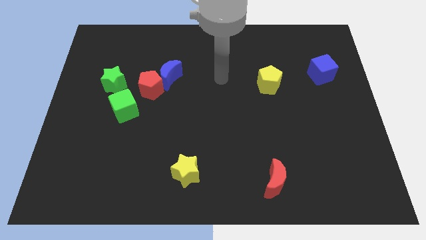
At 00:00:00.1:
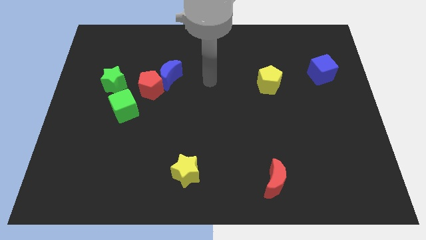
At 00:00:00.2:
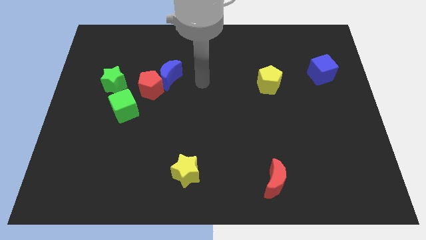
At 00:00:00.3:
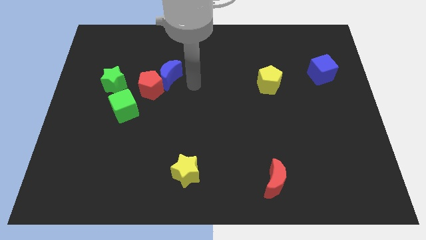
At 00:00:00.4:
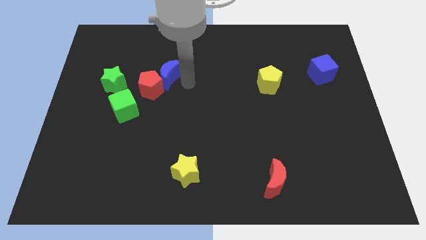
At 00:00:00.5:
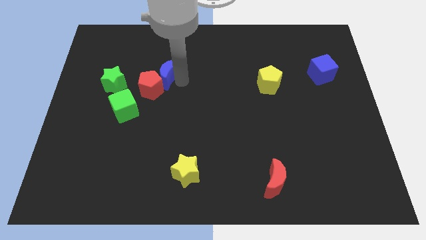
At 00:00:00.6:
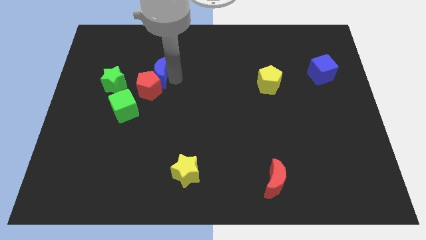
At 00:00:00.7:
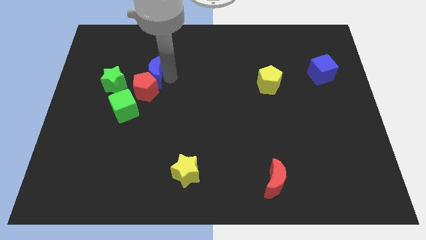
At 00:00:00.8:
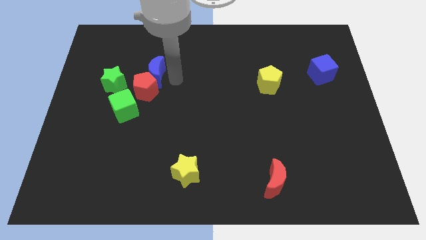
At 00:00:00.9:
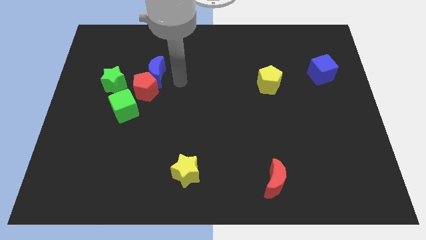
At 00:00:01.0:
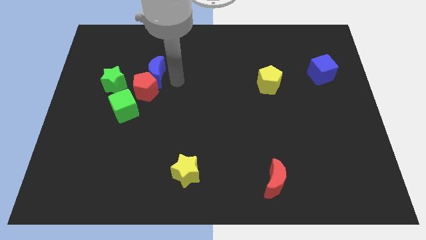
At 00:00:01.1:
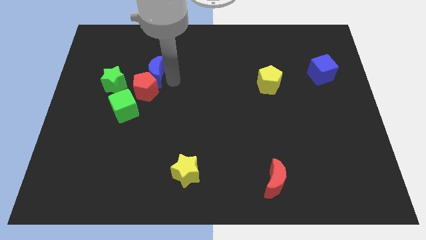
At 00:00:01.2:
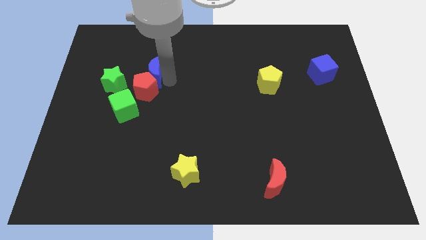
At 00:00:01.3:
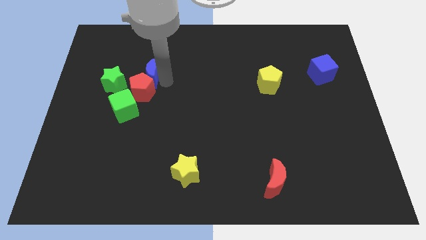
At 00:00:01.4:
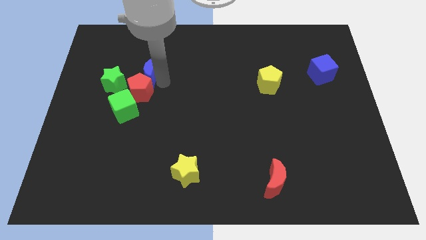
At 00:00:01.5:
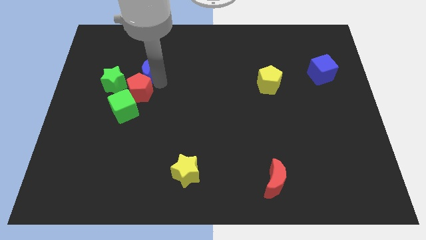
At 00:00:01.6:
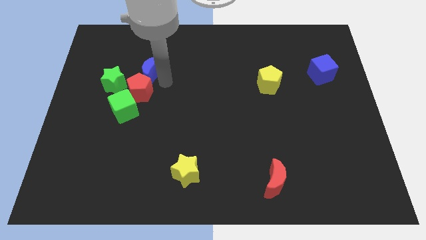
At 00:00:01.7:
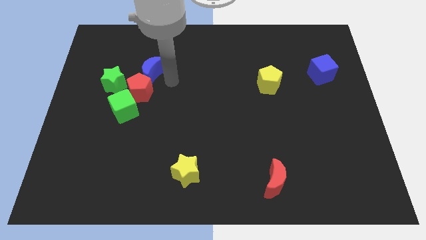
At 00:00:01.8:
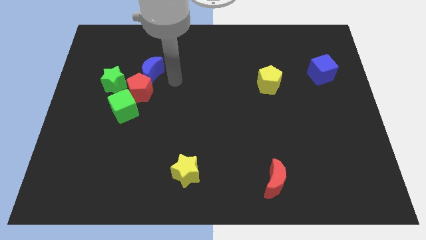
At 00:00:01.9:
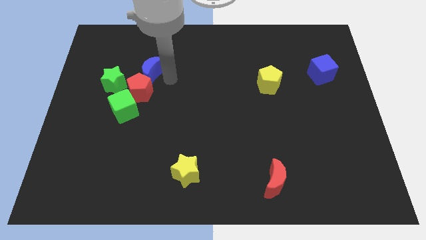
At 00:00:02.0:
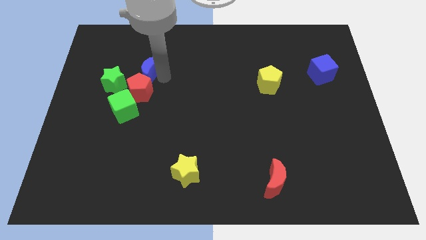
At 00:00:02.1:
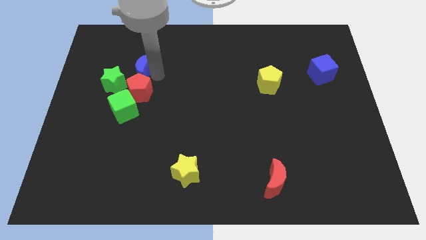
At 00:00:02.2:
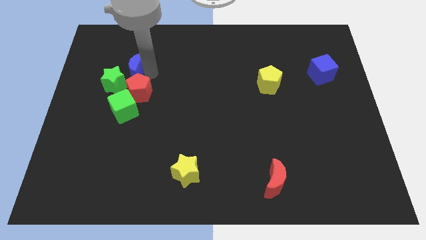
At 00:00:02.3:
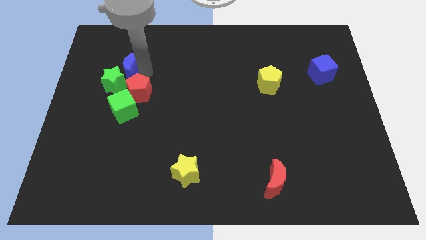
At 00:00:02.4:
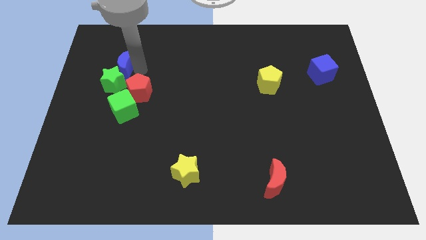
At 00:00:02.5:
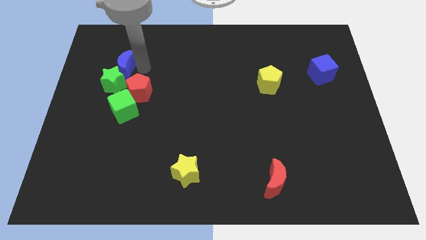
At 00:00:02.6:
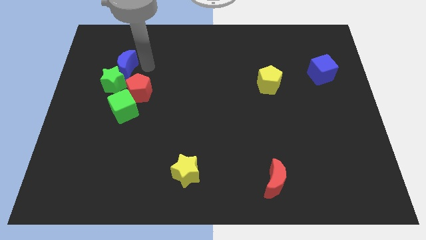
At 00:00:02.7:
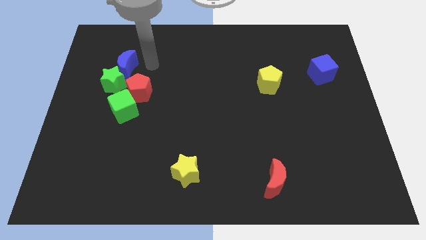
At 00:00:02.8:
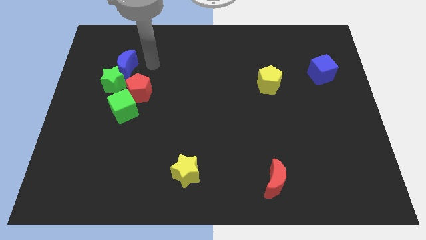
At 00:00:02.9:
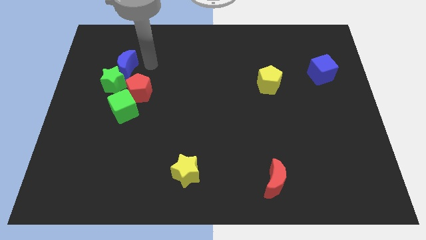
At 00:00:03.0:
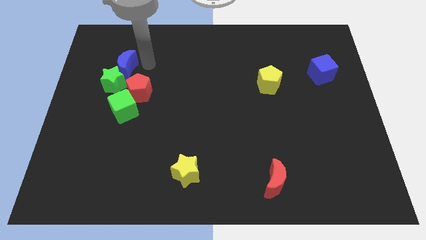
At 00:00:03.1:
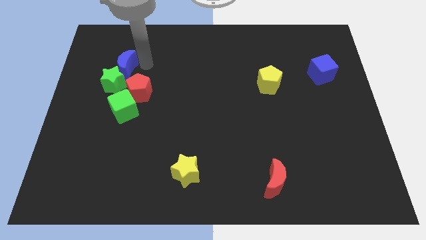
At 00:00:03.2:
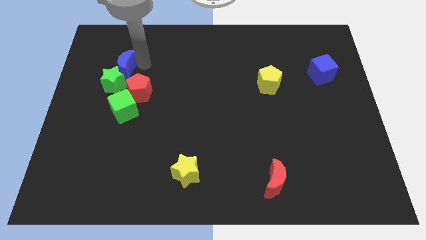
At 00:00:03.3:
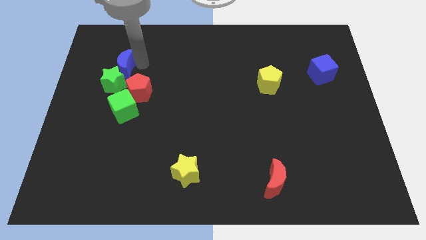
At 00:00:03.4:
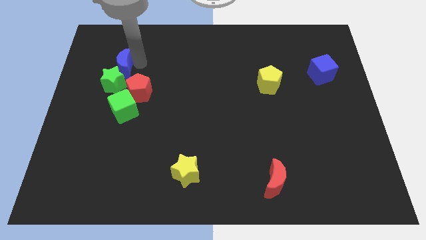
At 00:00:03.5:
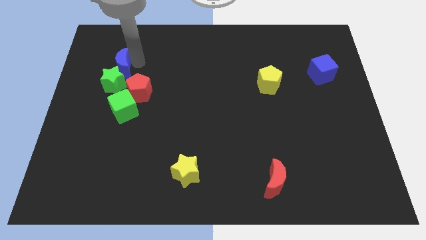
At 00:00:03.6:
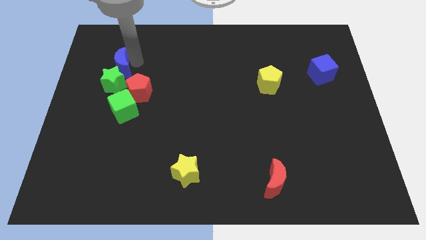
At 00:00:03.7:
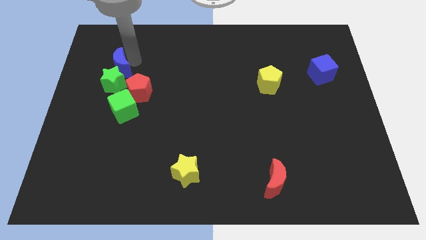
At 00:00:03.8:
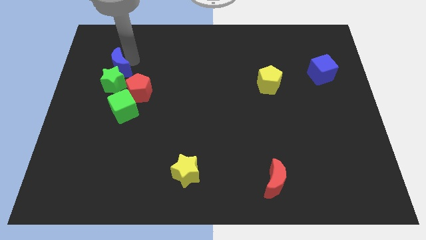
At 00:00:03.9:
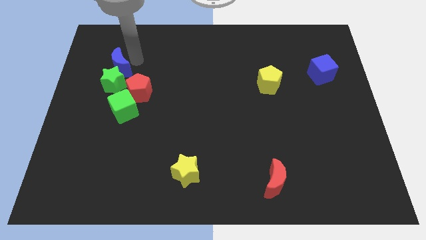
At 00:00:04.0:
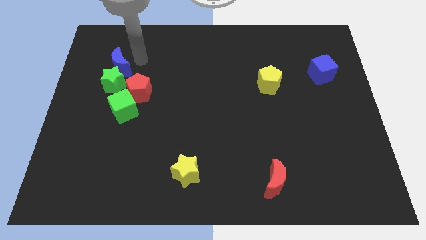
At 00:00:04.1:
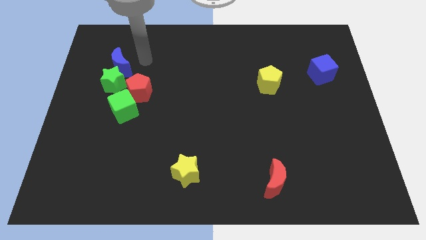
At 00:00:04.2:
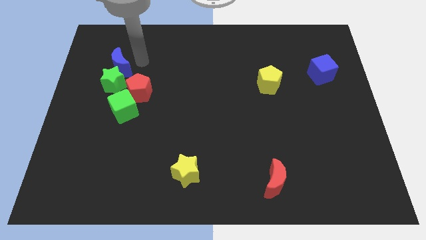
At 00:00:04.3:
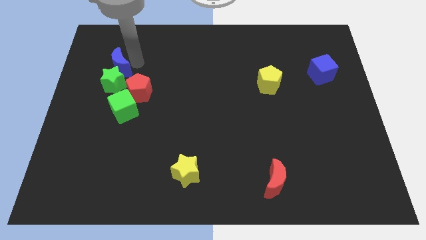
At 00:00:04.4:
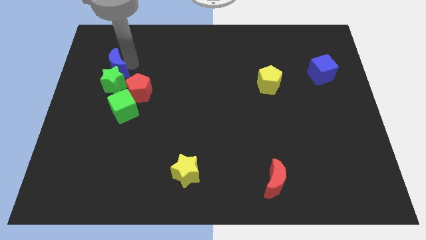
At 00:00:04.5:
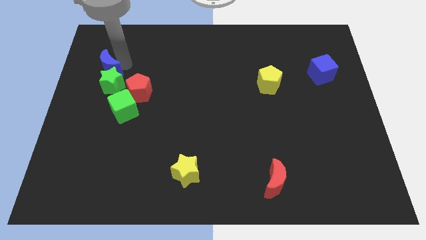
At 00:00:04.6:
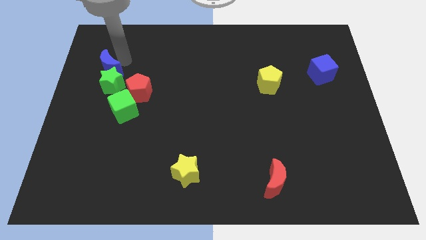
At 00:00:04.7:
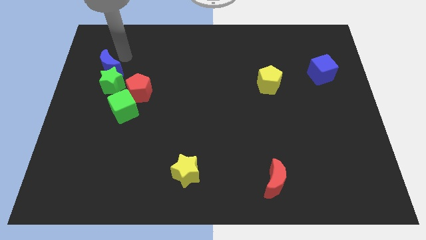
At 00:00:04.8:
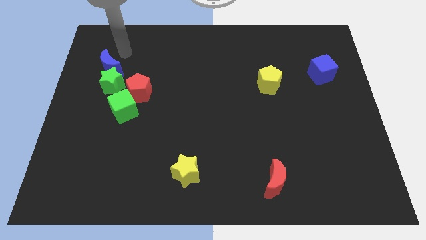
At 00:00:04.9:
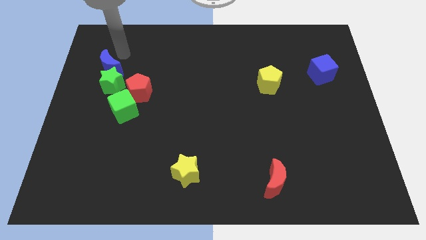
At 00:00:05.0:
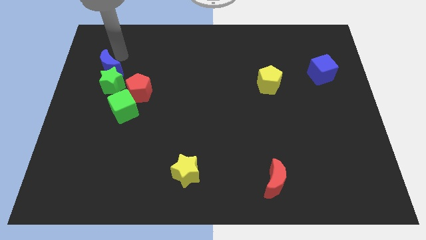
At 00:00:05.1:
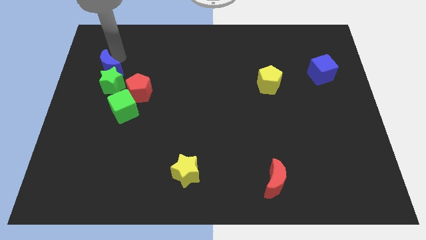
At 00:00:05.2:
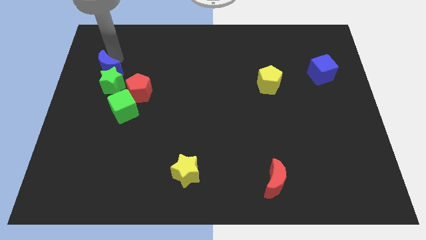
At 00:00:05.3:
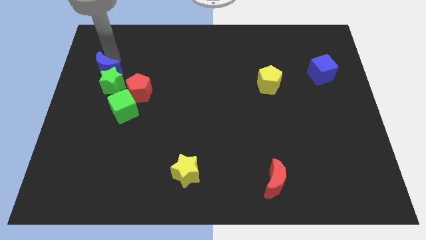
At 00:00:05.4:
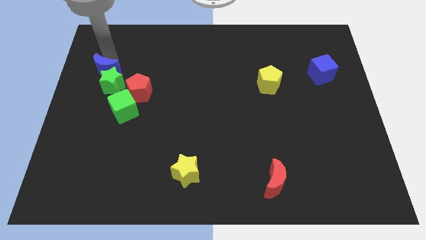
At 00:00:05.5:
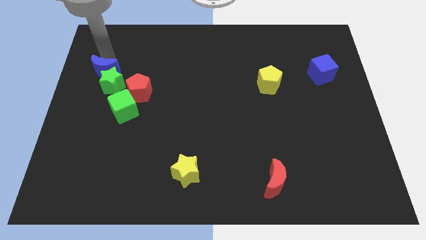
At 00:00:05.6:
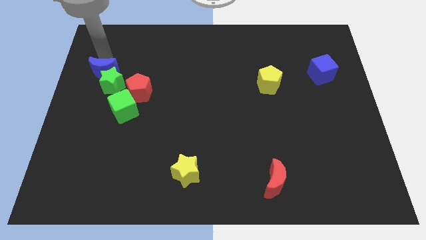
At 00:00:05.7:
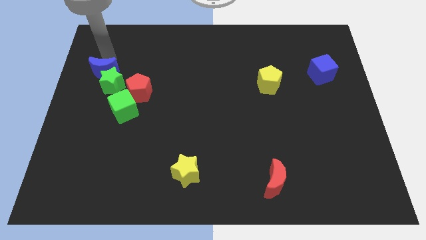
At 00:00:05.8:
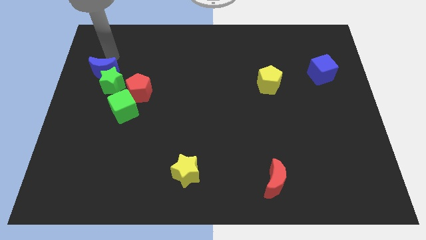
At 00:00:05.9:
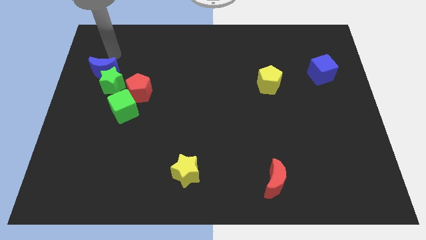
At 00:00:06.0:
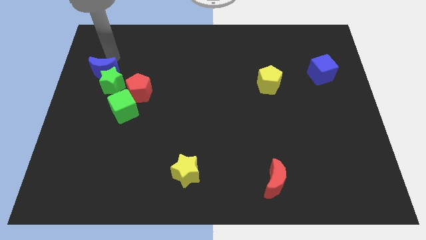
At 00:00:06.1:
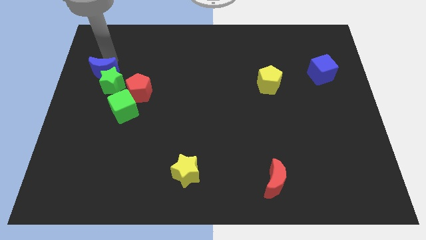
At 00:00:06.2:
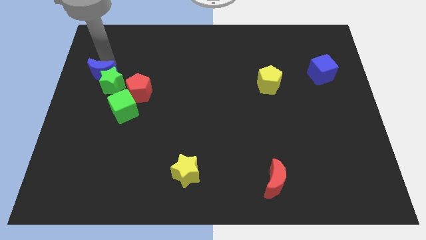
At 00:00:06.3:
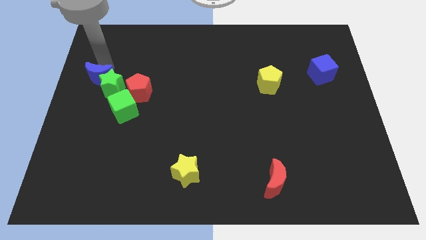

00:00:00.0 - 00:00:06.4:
slide the blue moon to the left side of the red pentagon

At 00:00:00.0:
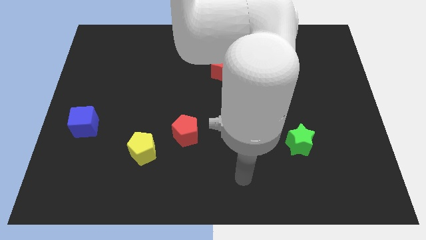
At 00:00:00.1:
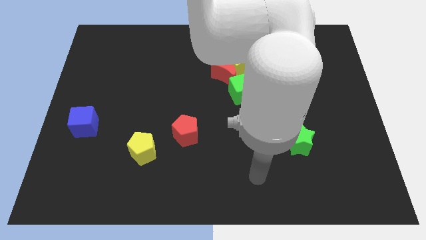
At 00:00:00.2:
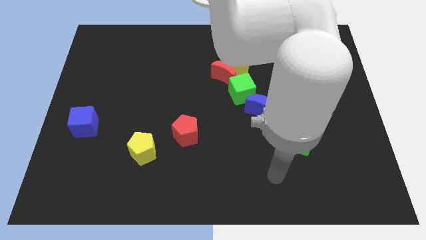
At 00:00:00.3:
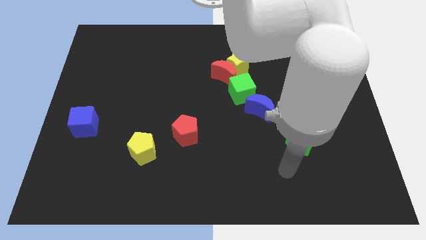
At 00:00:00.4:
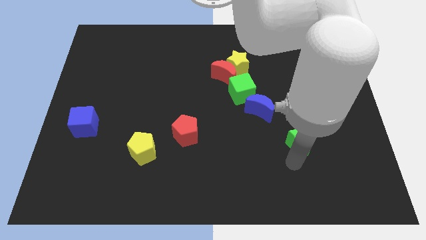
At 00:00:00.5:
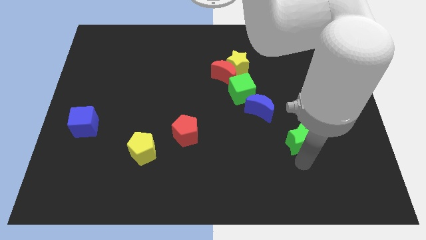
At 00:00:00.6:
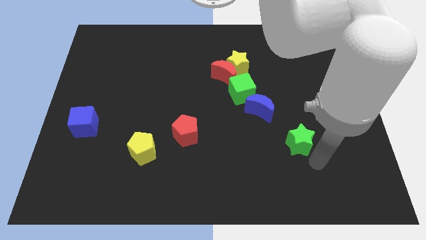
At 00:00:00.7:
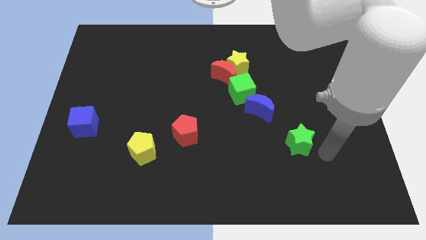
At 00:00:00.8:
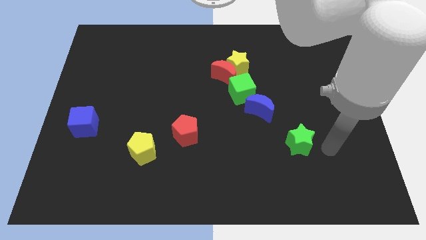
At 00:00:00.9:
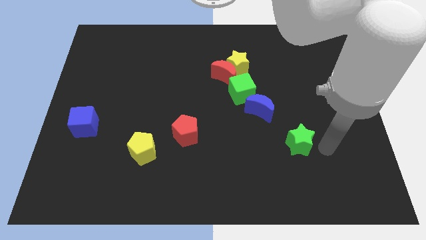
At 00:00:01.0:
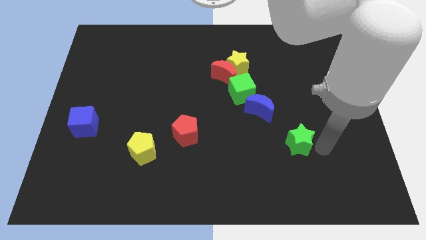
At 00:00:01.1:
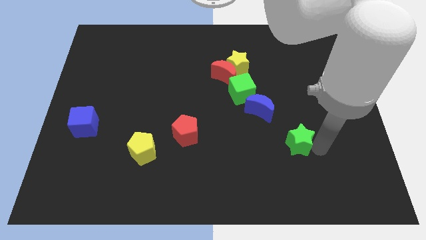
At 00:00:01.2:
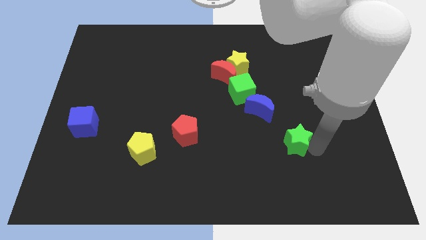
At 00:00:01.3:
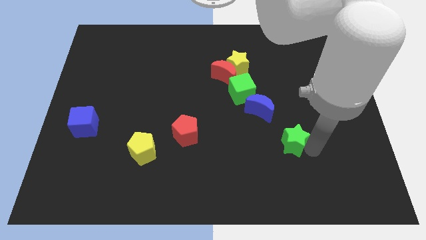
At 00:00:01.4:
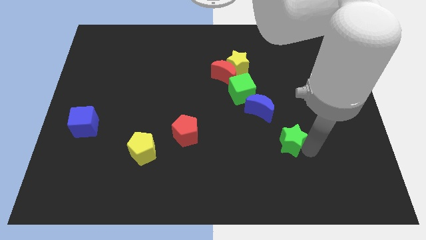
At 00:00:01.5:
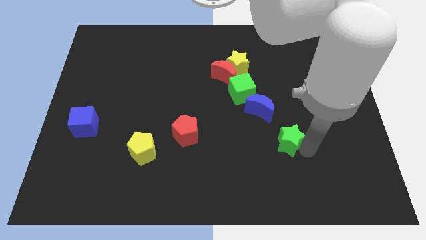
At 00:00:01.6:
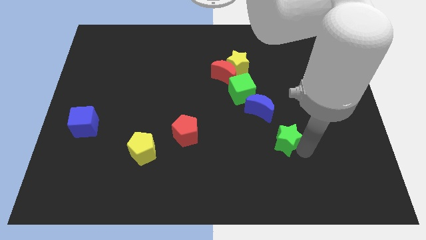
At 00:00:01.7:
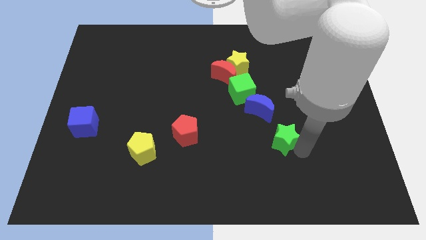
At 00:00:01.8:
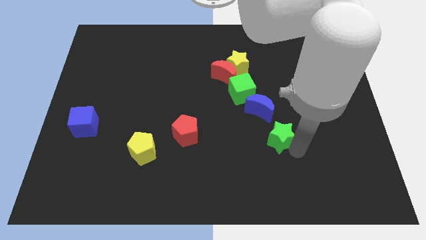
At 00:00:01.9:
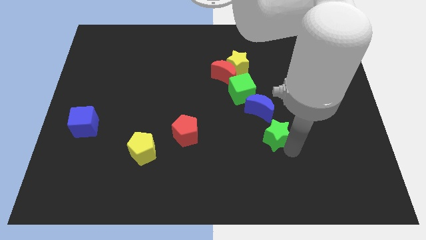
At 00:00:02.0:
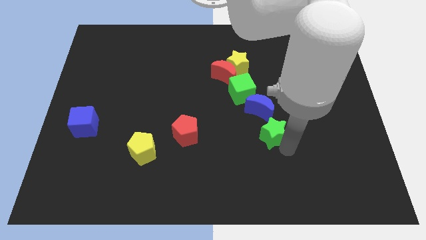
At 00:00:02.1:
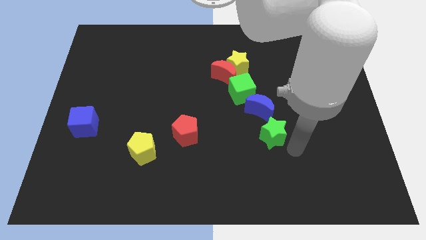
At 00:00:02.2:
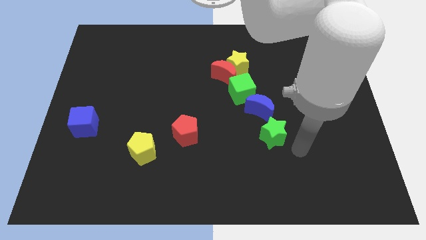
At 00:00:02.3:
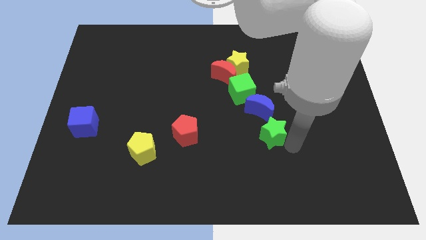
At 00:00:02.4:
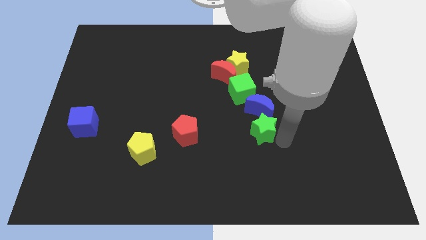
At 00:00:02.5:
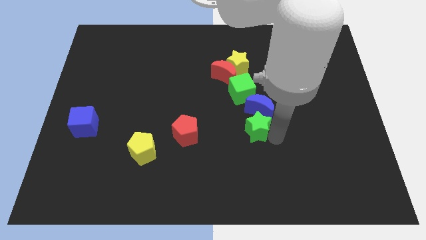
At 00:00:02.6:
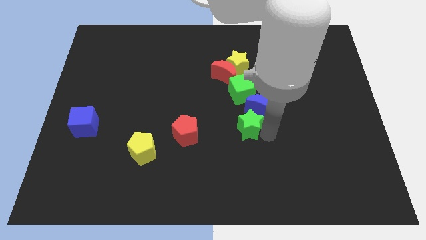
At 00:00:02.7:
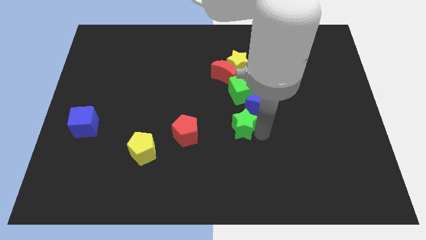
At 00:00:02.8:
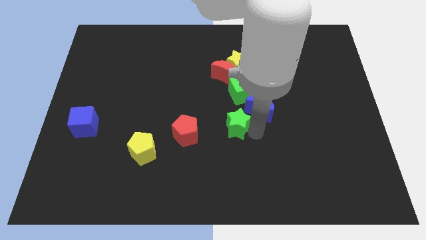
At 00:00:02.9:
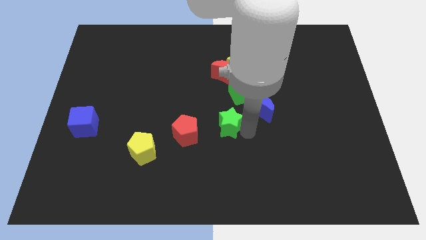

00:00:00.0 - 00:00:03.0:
put the green star to the bottom side of the red moon
